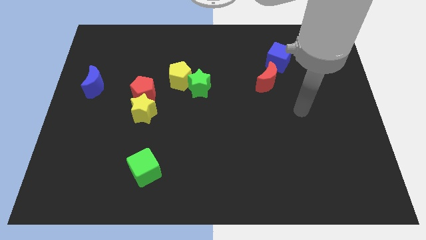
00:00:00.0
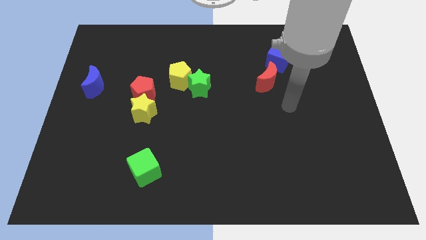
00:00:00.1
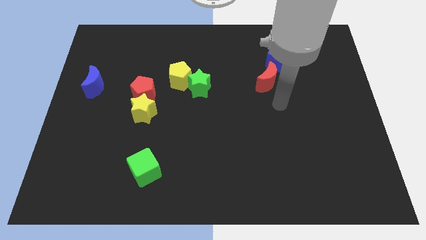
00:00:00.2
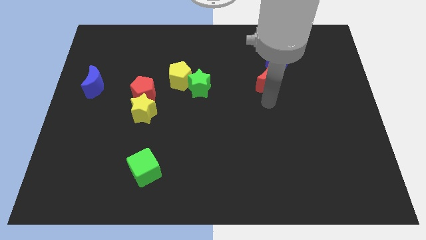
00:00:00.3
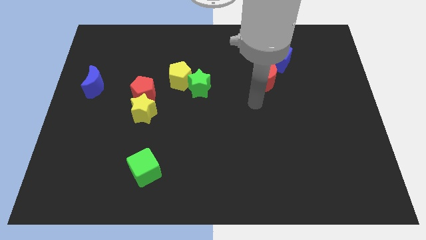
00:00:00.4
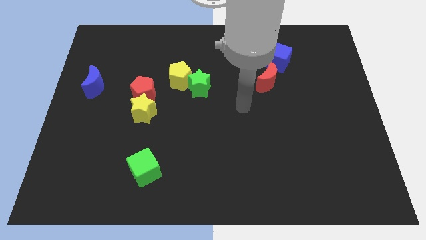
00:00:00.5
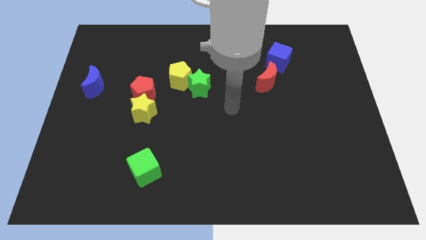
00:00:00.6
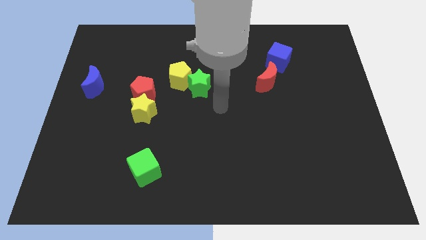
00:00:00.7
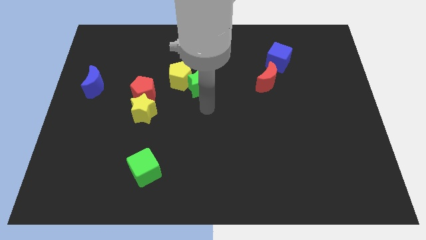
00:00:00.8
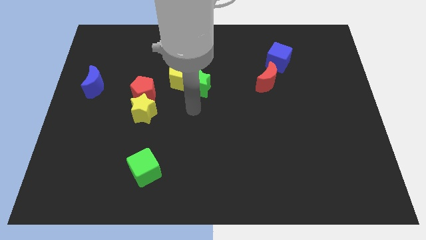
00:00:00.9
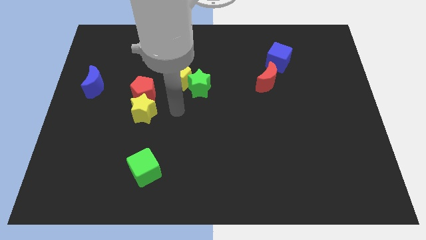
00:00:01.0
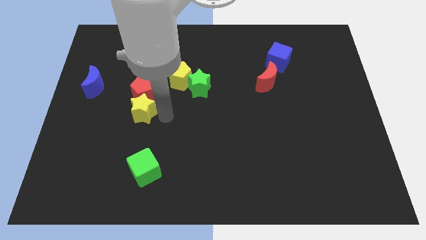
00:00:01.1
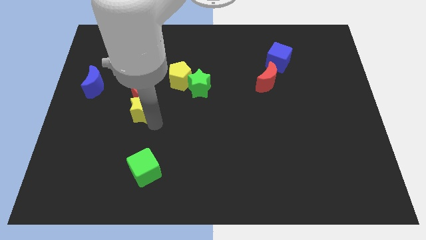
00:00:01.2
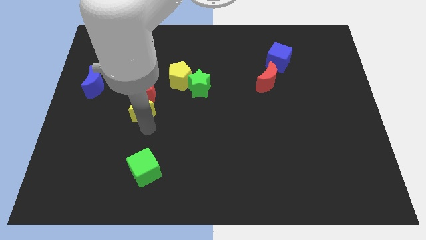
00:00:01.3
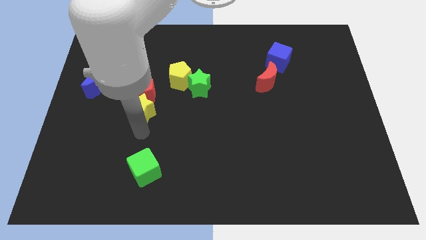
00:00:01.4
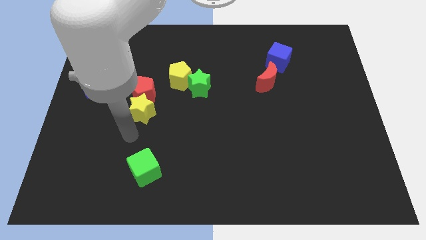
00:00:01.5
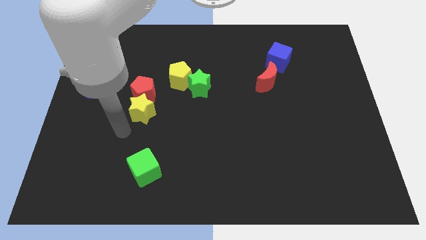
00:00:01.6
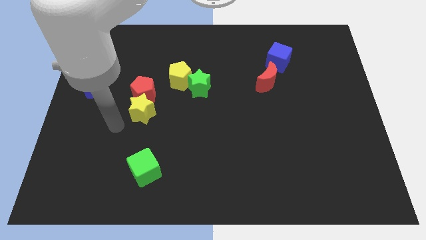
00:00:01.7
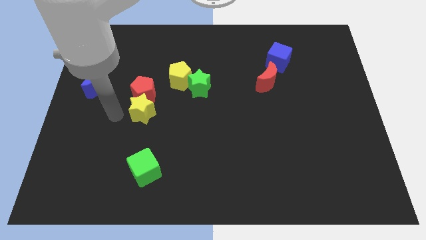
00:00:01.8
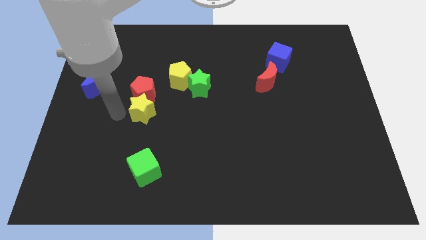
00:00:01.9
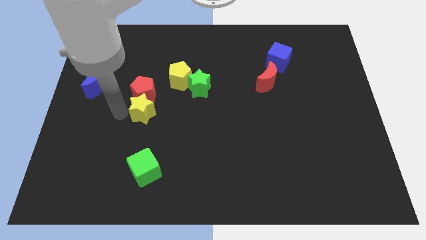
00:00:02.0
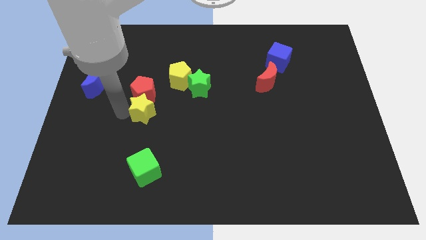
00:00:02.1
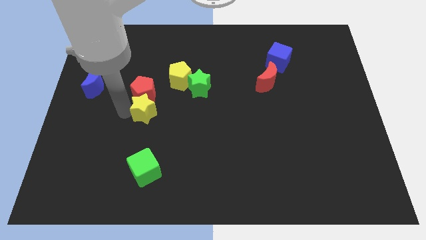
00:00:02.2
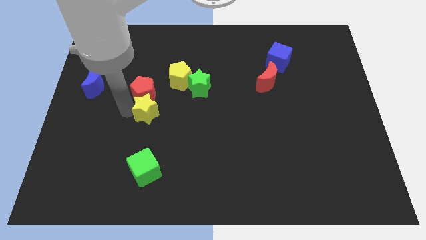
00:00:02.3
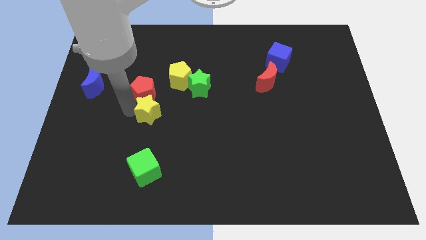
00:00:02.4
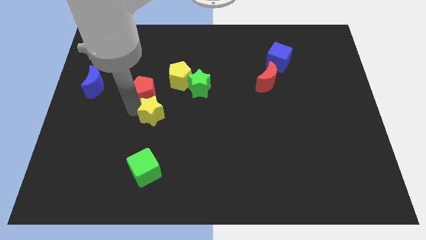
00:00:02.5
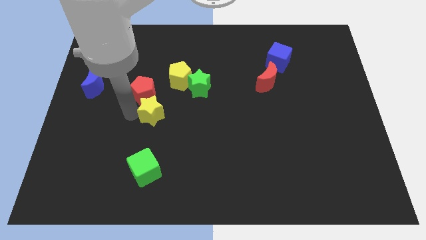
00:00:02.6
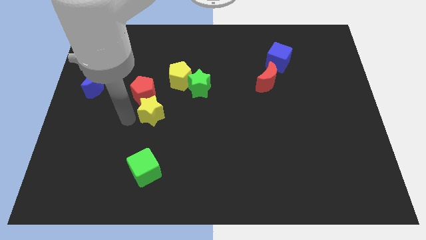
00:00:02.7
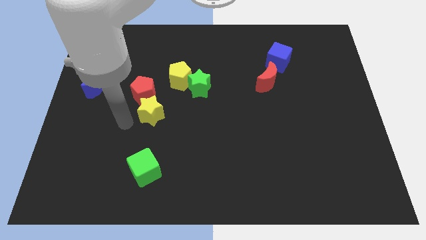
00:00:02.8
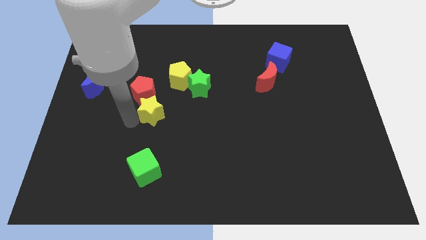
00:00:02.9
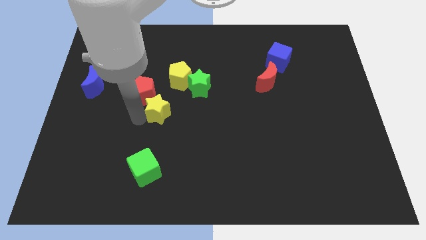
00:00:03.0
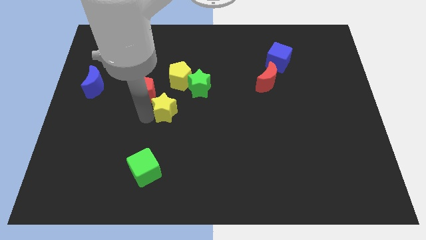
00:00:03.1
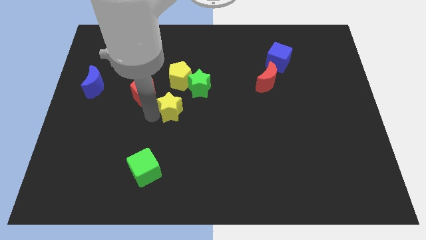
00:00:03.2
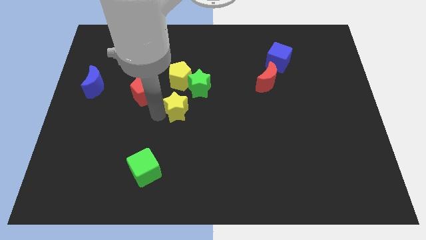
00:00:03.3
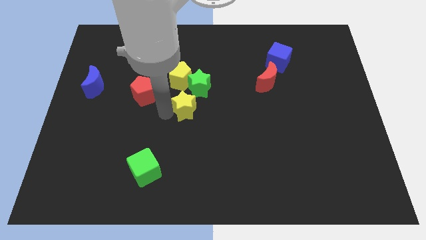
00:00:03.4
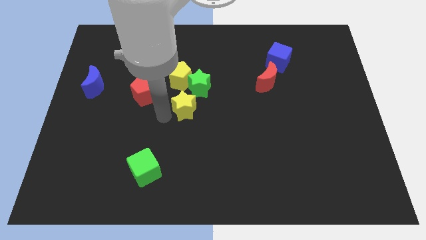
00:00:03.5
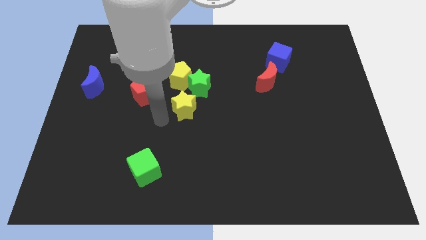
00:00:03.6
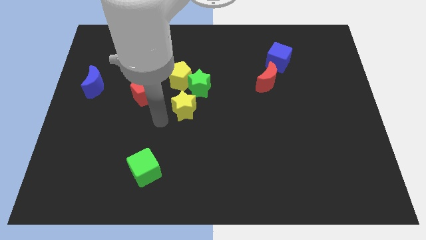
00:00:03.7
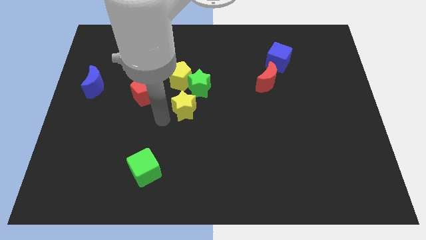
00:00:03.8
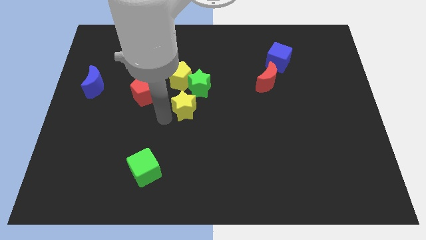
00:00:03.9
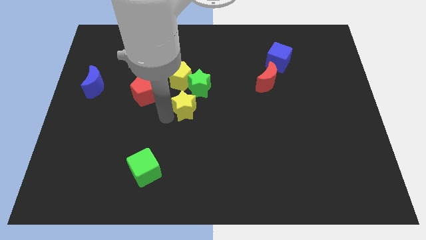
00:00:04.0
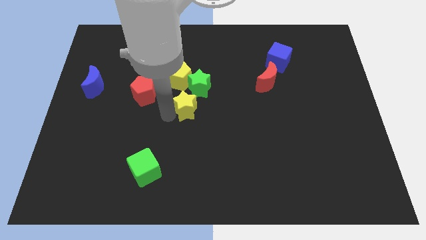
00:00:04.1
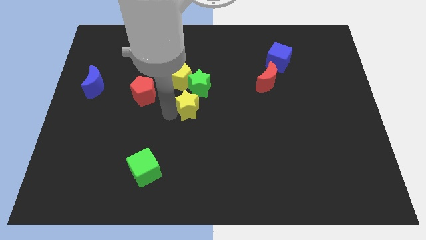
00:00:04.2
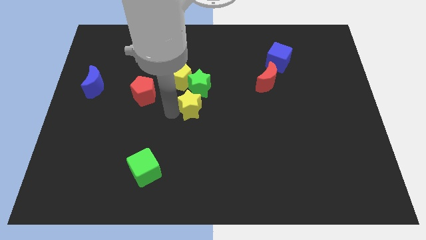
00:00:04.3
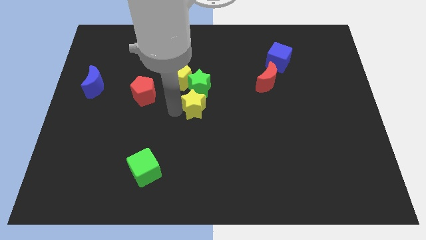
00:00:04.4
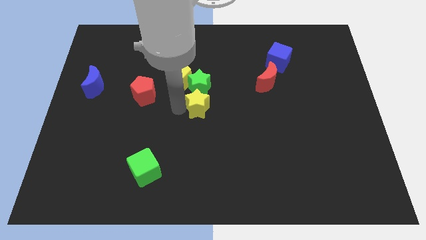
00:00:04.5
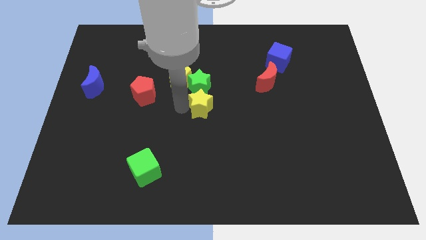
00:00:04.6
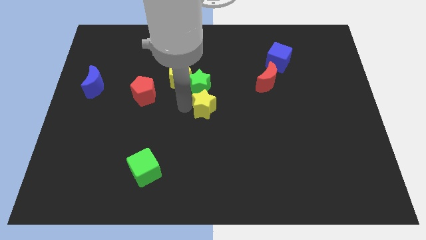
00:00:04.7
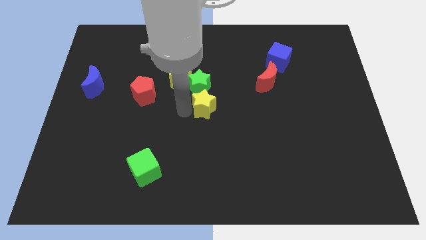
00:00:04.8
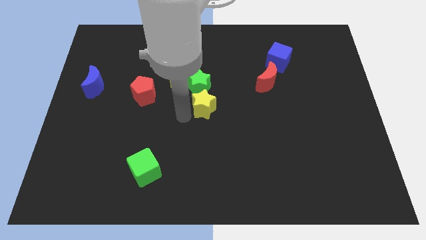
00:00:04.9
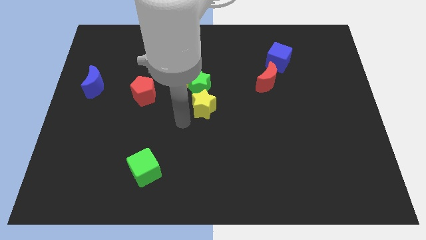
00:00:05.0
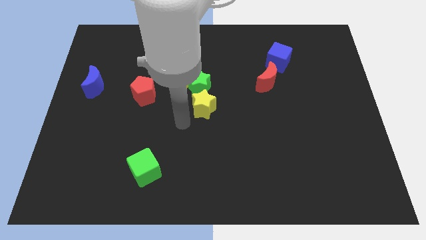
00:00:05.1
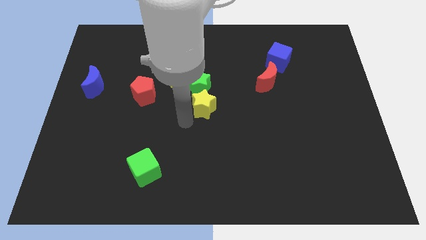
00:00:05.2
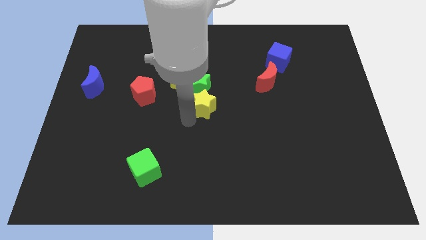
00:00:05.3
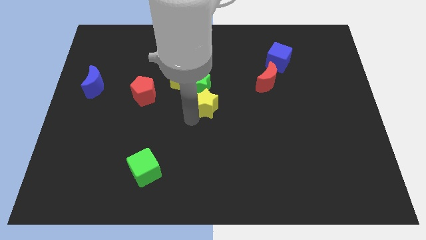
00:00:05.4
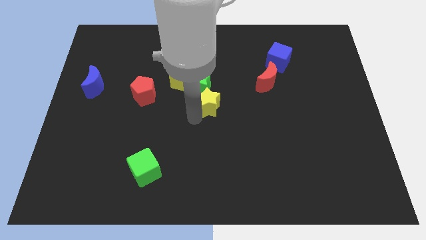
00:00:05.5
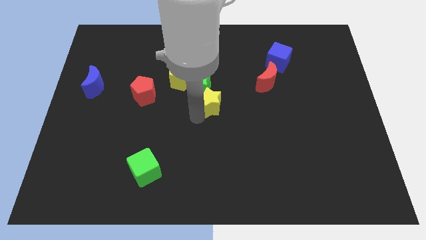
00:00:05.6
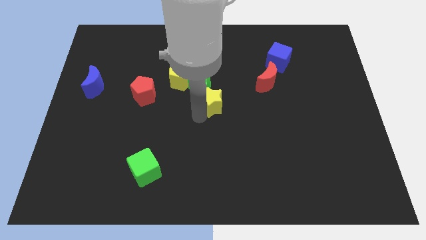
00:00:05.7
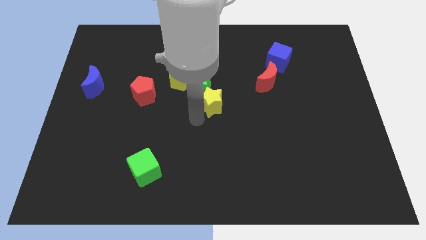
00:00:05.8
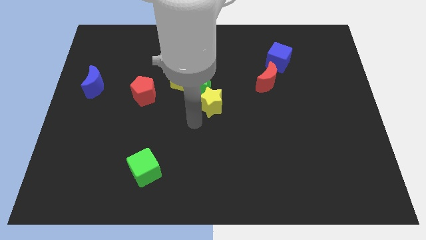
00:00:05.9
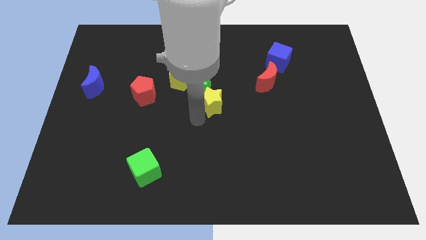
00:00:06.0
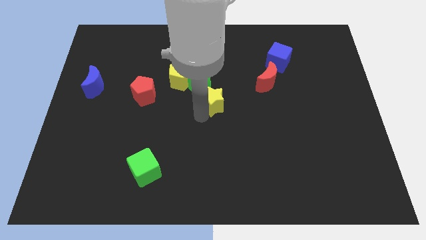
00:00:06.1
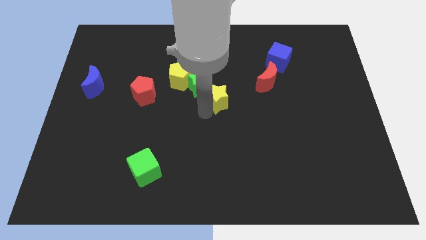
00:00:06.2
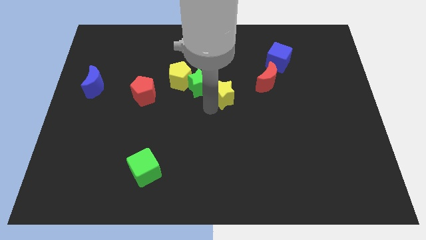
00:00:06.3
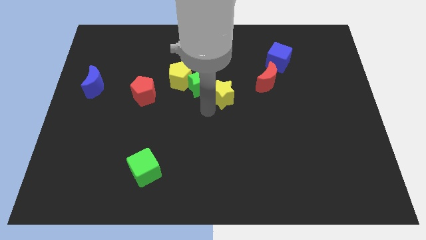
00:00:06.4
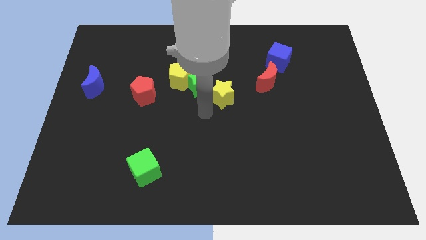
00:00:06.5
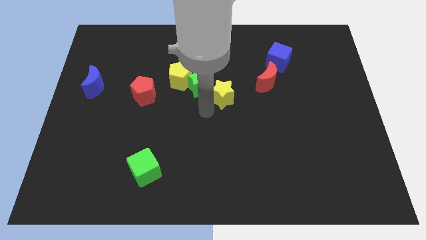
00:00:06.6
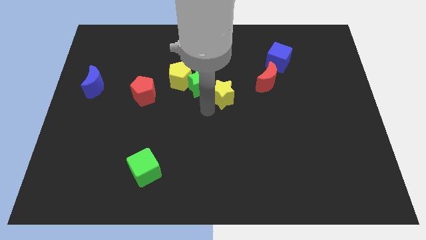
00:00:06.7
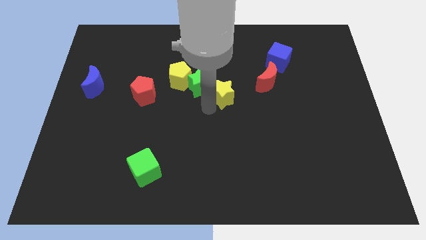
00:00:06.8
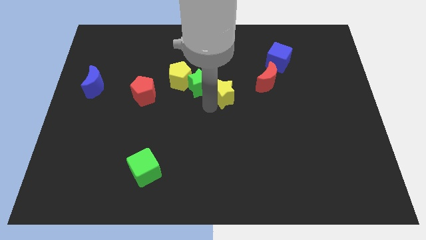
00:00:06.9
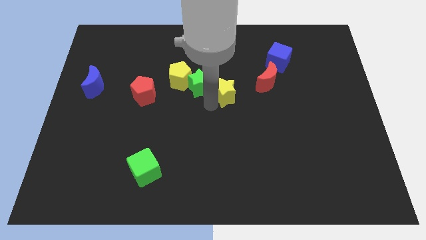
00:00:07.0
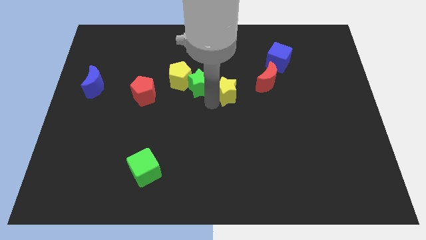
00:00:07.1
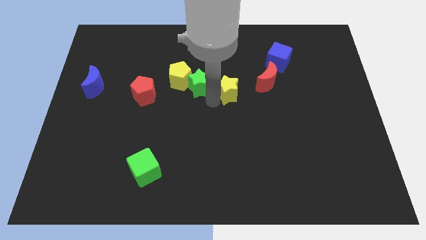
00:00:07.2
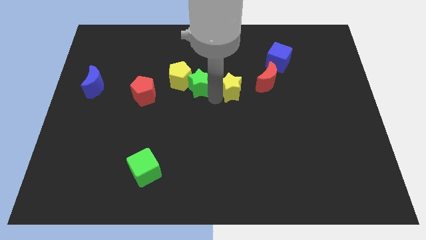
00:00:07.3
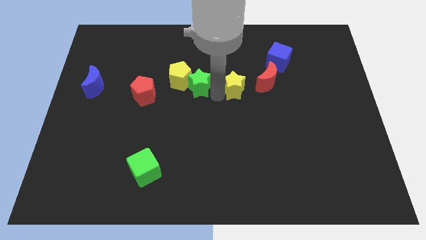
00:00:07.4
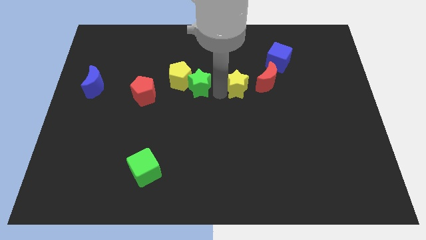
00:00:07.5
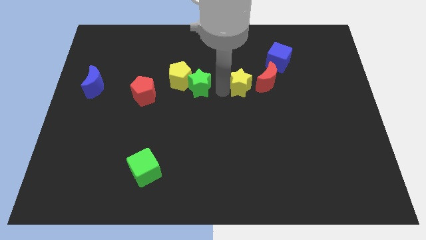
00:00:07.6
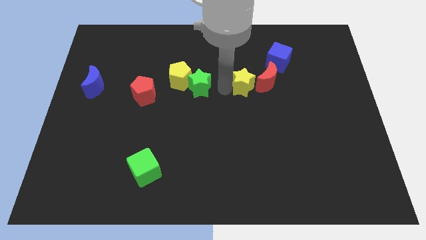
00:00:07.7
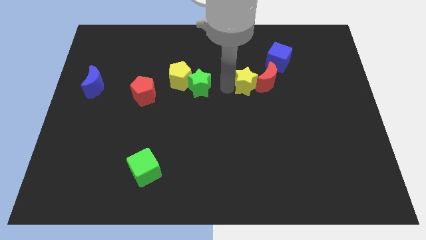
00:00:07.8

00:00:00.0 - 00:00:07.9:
put the yellow star towards the red moon
